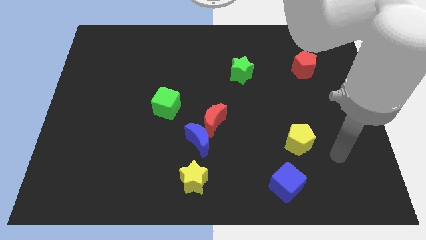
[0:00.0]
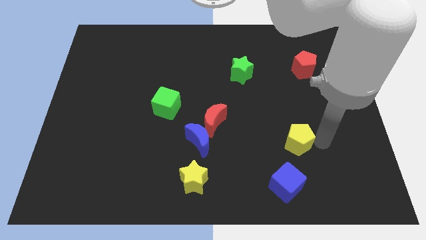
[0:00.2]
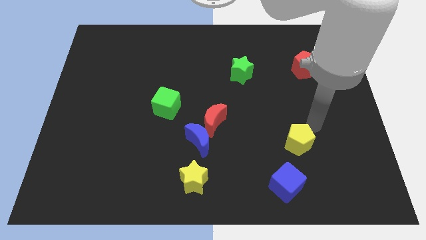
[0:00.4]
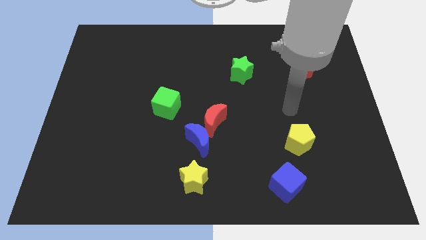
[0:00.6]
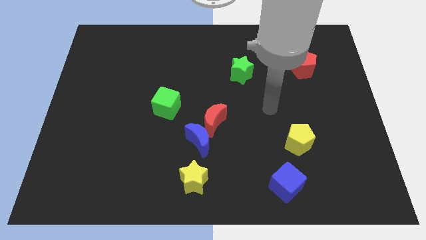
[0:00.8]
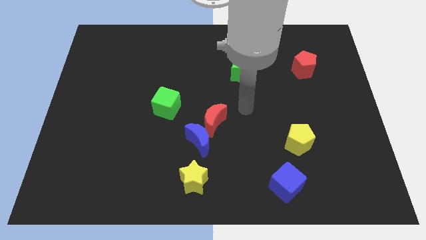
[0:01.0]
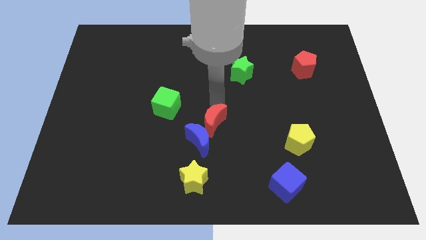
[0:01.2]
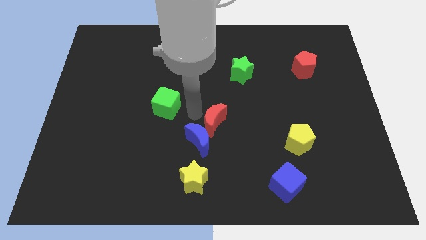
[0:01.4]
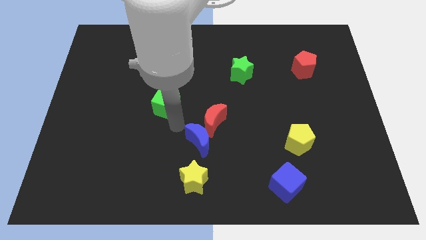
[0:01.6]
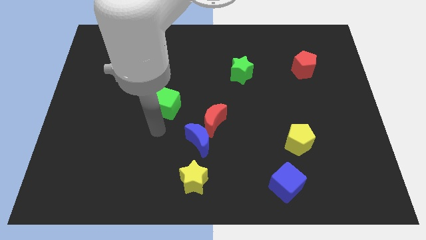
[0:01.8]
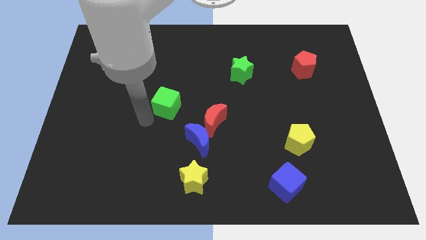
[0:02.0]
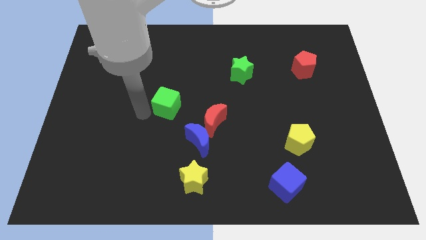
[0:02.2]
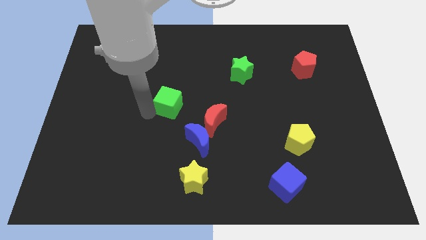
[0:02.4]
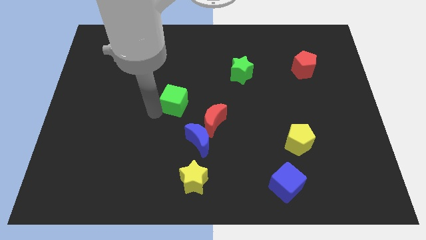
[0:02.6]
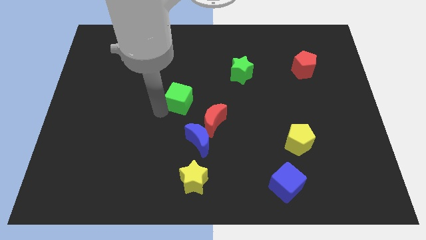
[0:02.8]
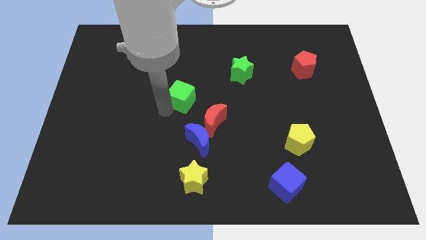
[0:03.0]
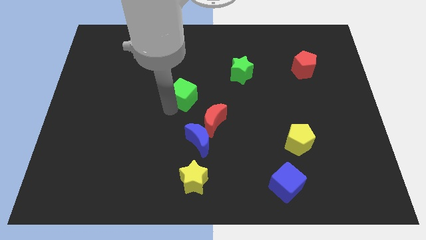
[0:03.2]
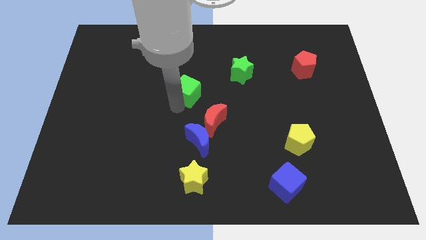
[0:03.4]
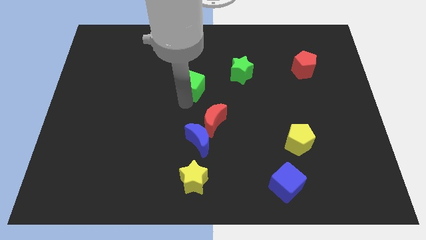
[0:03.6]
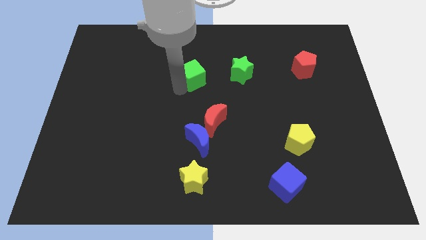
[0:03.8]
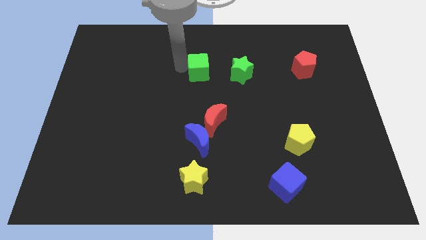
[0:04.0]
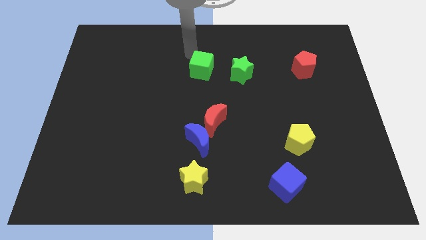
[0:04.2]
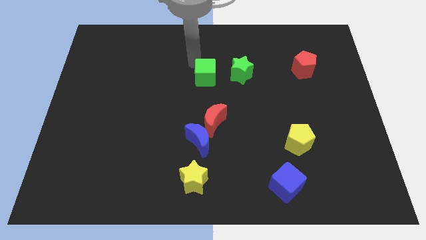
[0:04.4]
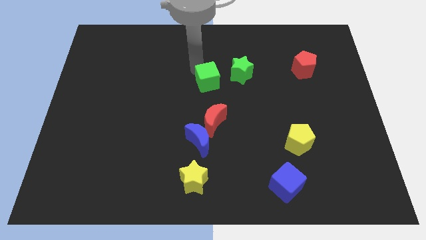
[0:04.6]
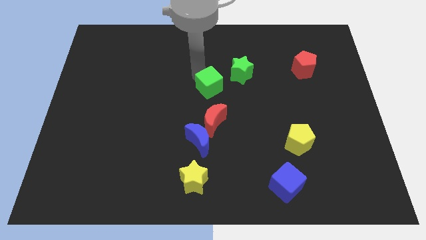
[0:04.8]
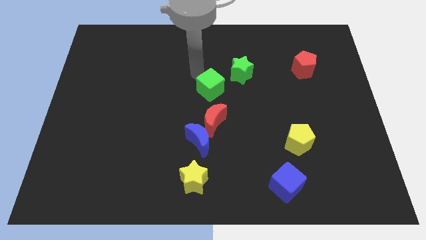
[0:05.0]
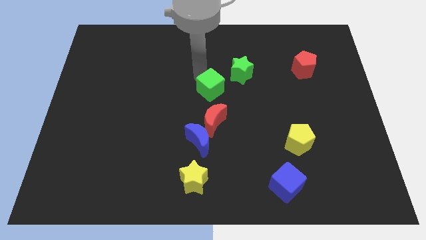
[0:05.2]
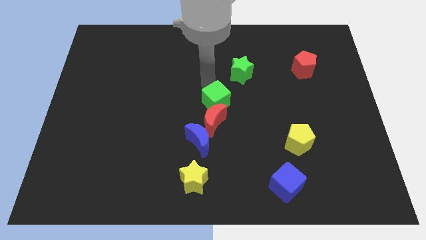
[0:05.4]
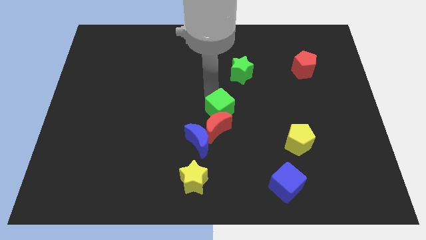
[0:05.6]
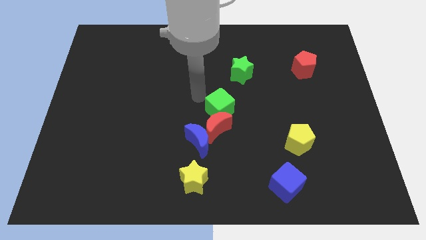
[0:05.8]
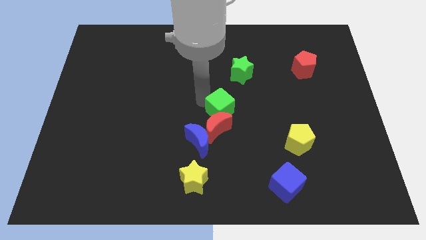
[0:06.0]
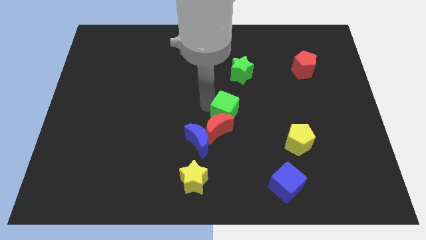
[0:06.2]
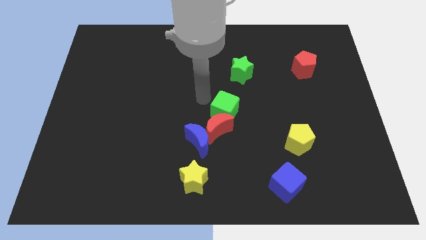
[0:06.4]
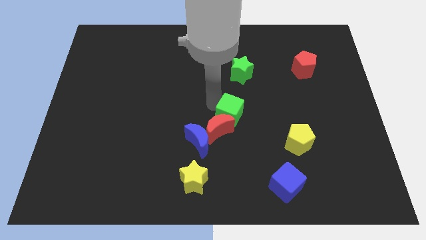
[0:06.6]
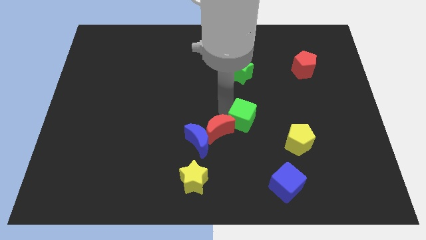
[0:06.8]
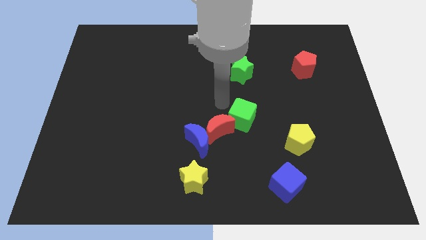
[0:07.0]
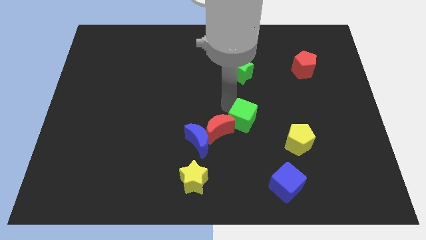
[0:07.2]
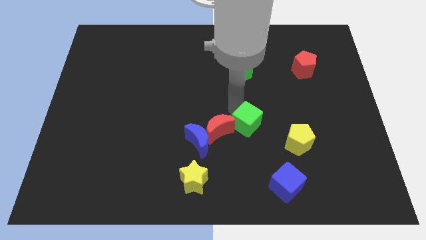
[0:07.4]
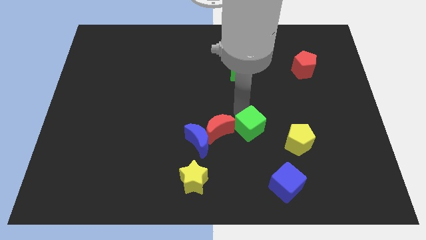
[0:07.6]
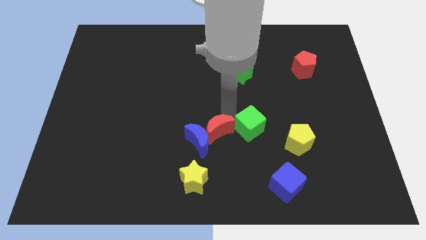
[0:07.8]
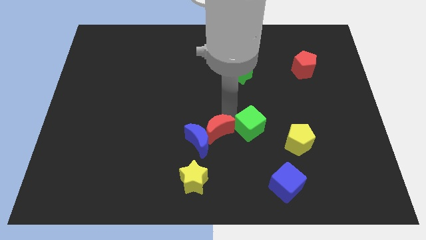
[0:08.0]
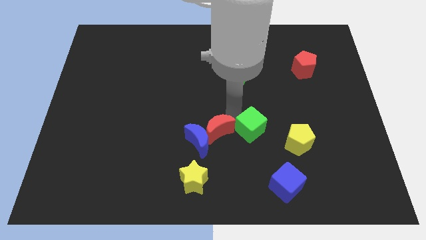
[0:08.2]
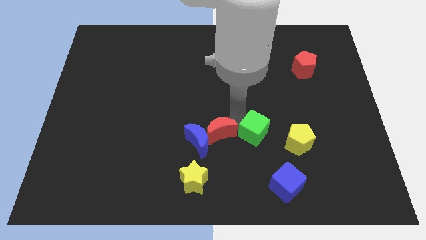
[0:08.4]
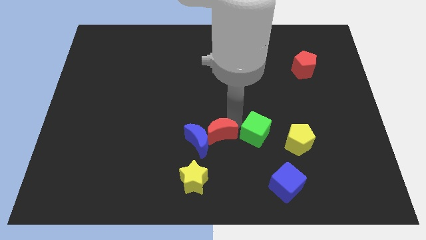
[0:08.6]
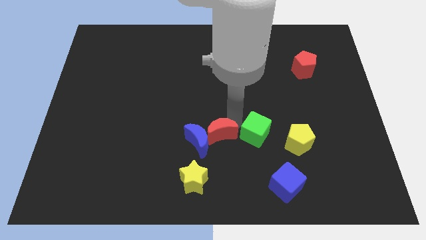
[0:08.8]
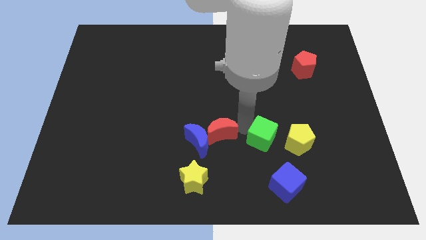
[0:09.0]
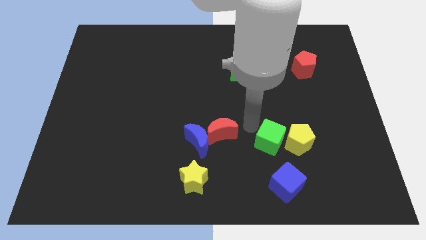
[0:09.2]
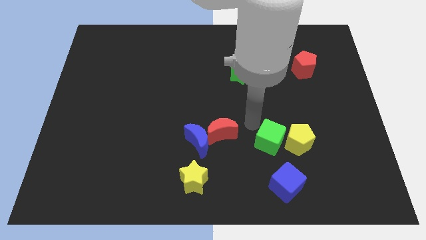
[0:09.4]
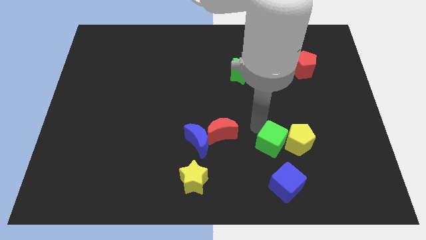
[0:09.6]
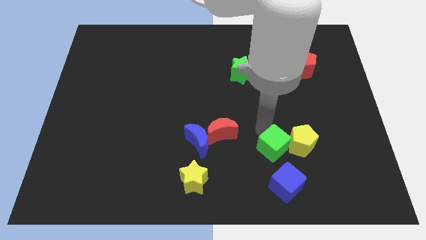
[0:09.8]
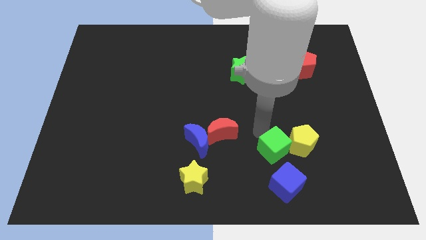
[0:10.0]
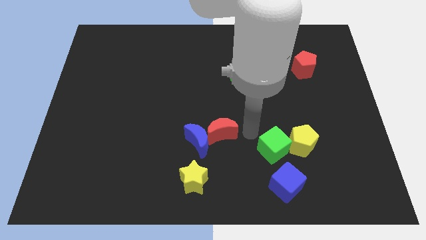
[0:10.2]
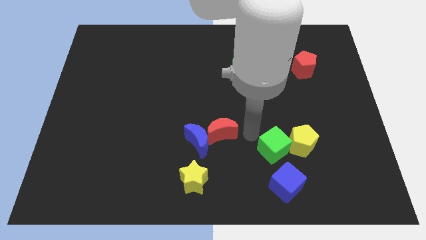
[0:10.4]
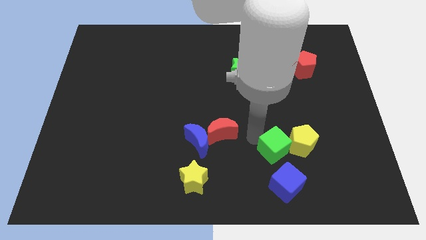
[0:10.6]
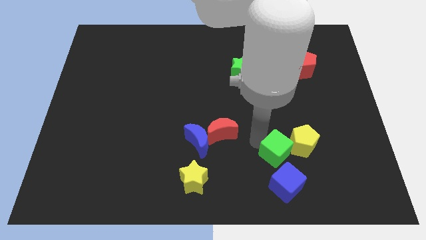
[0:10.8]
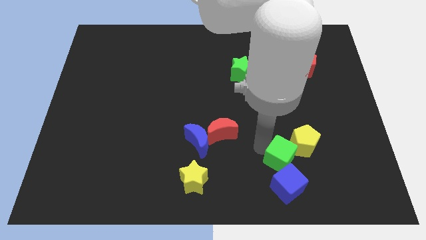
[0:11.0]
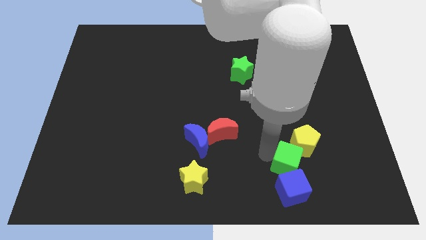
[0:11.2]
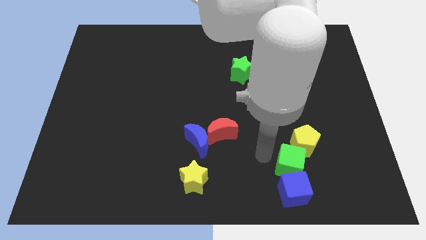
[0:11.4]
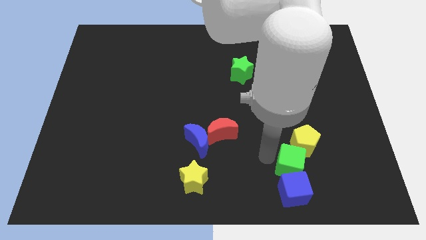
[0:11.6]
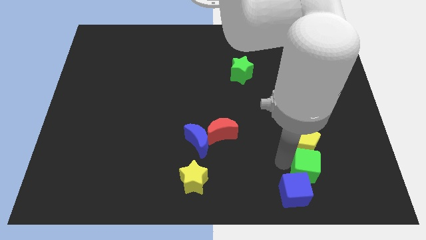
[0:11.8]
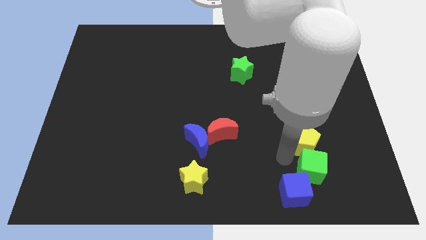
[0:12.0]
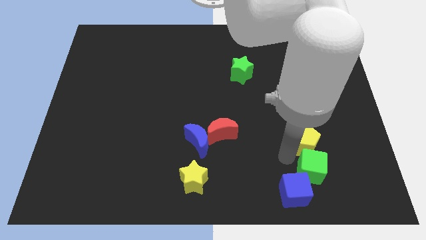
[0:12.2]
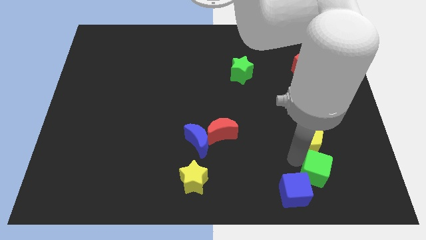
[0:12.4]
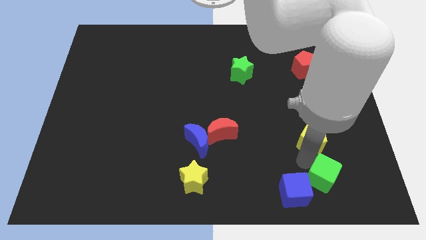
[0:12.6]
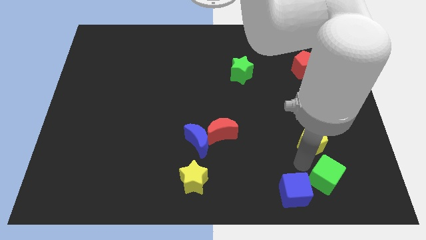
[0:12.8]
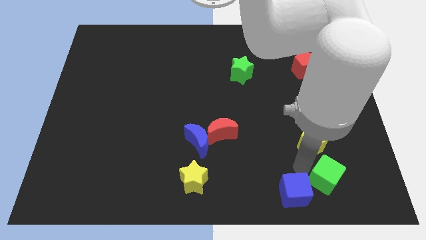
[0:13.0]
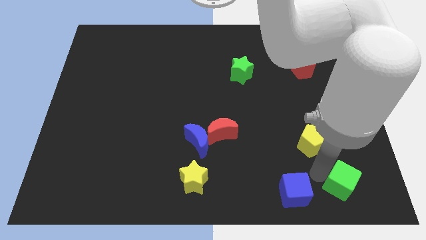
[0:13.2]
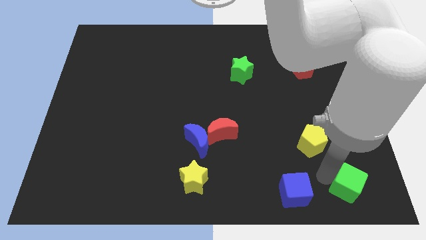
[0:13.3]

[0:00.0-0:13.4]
move the green cube to the bottom right of the board

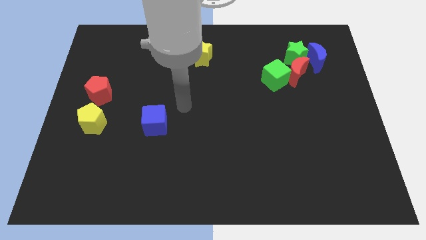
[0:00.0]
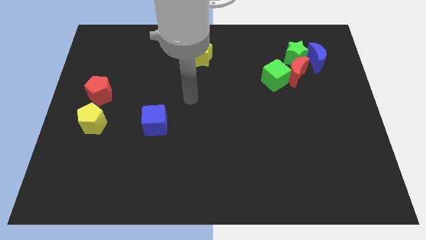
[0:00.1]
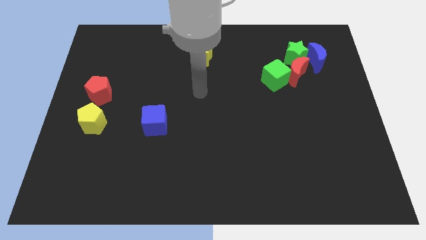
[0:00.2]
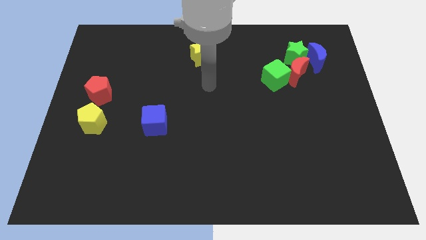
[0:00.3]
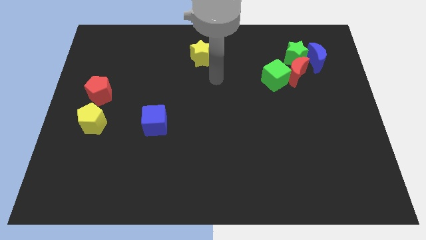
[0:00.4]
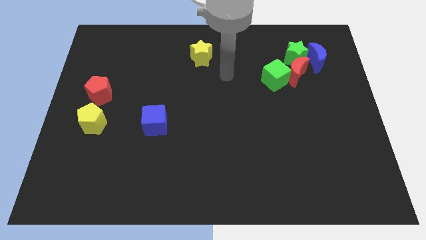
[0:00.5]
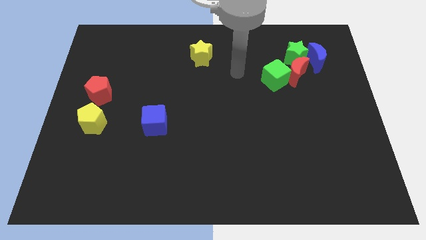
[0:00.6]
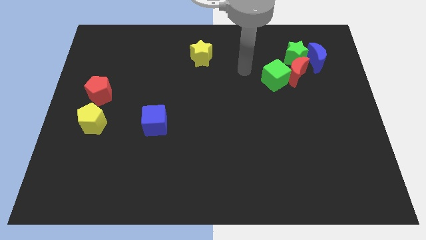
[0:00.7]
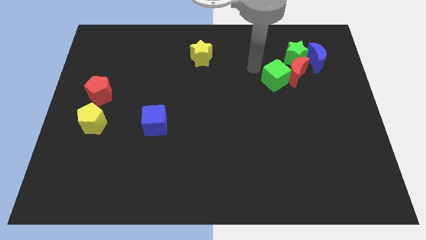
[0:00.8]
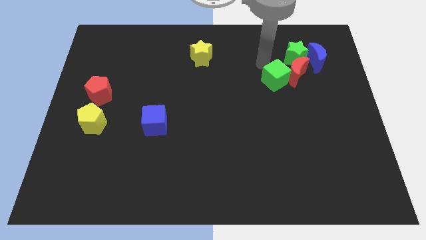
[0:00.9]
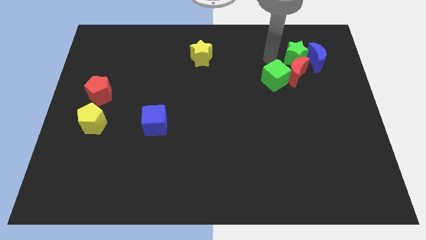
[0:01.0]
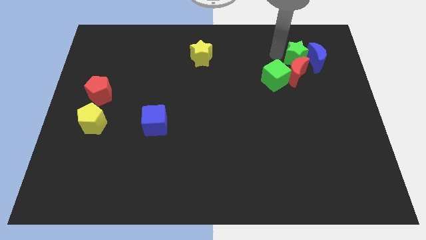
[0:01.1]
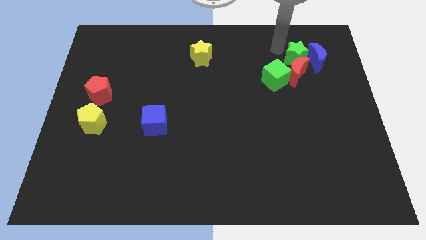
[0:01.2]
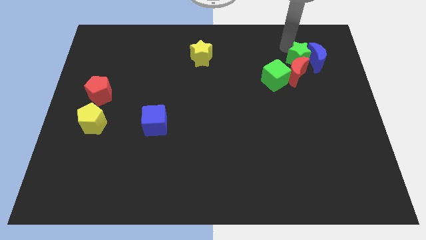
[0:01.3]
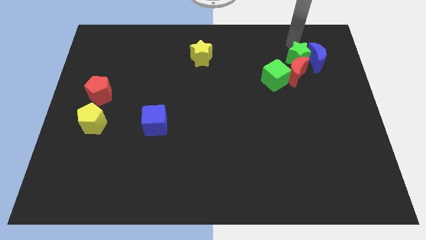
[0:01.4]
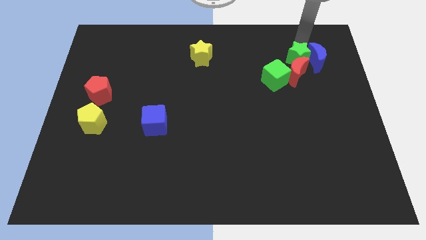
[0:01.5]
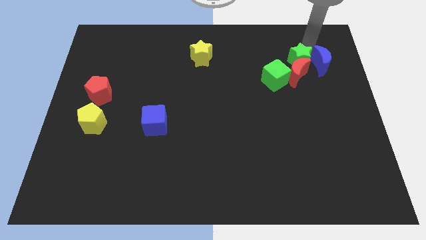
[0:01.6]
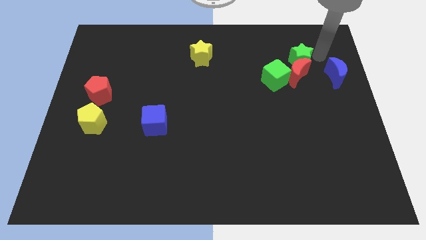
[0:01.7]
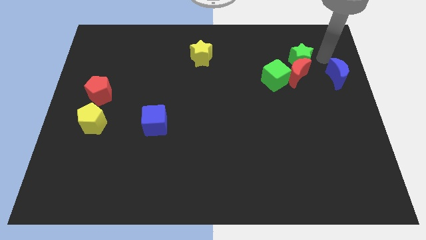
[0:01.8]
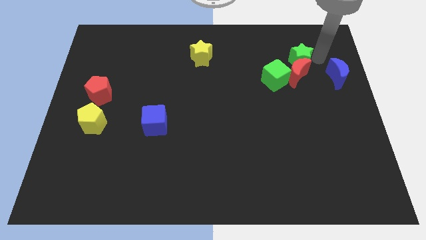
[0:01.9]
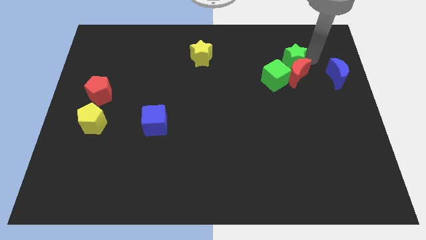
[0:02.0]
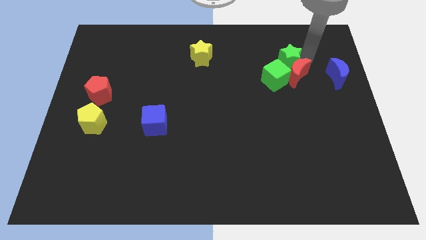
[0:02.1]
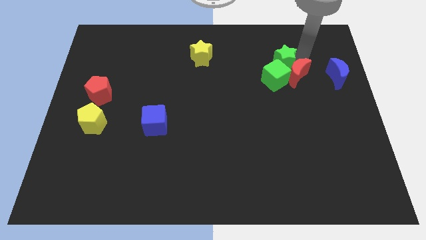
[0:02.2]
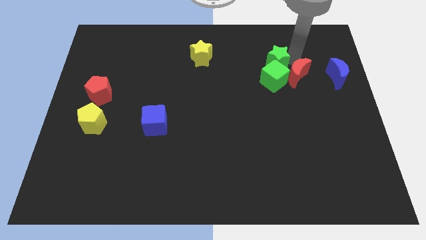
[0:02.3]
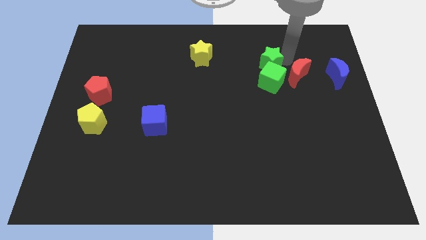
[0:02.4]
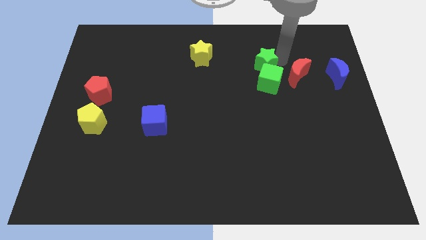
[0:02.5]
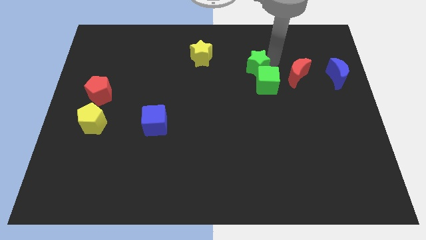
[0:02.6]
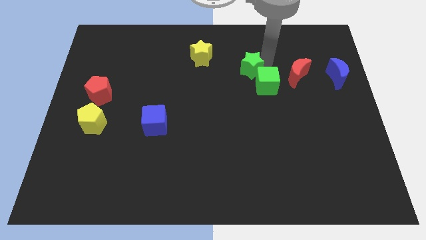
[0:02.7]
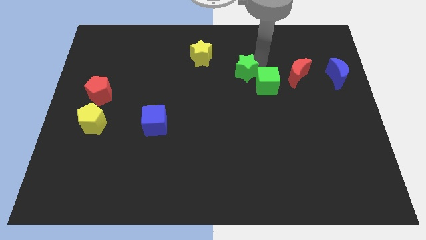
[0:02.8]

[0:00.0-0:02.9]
slide the green star to the middle of the board
